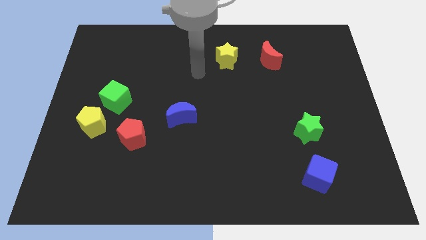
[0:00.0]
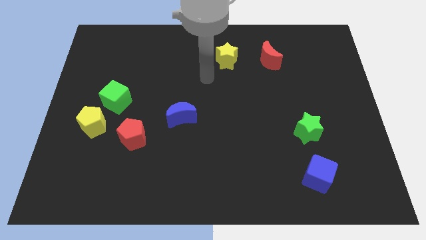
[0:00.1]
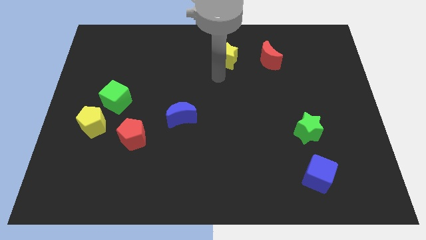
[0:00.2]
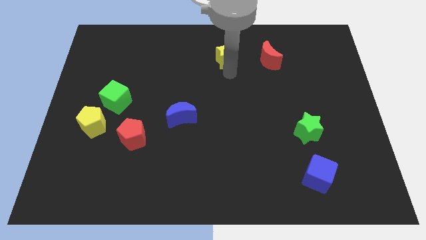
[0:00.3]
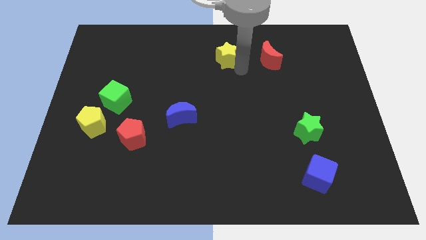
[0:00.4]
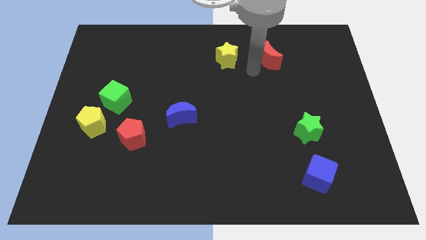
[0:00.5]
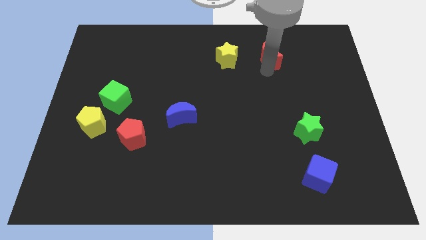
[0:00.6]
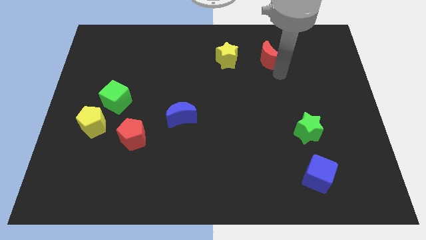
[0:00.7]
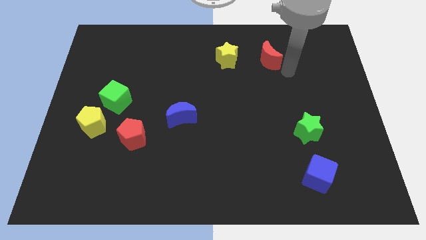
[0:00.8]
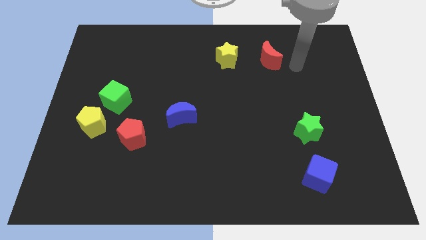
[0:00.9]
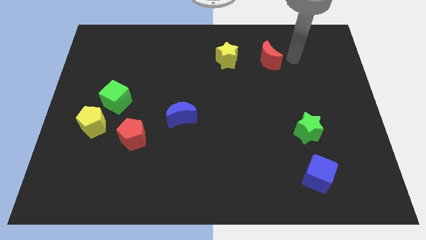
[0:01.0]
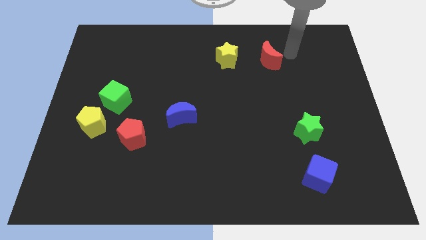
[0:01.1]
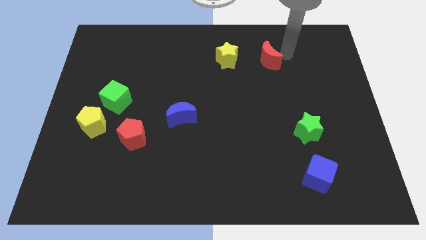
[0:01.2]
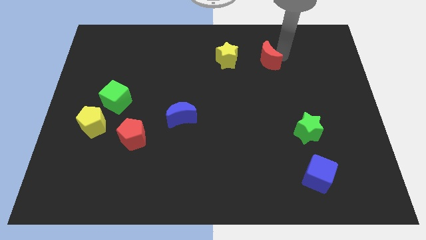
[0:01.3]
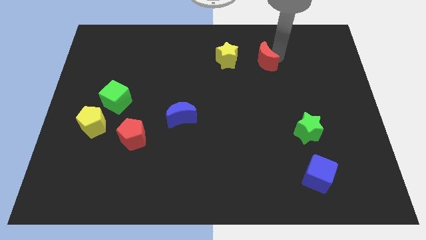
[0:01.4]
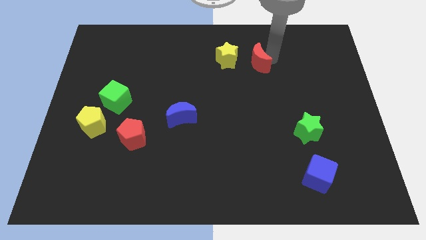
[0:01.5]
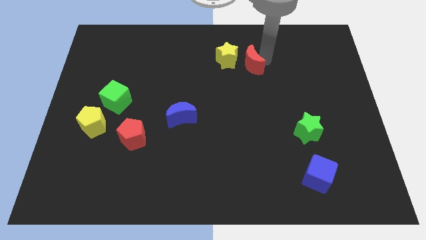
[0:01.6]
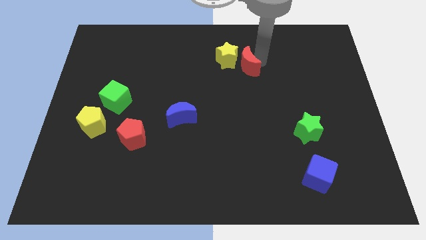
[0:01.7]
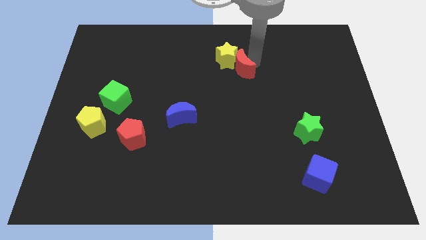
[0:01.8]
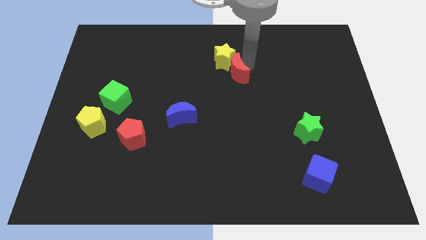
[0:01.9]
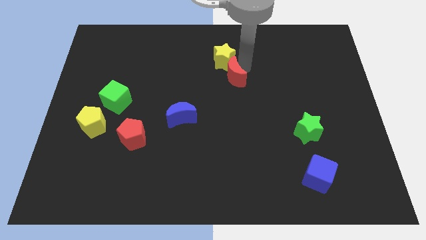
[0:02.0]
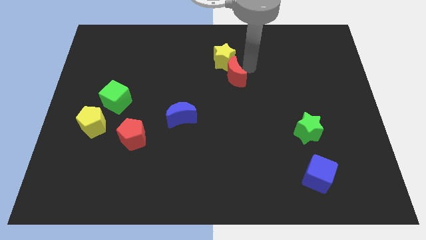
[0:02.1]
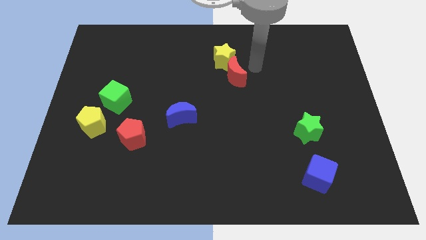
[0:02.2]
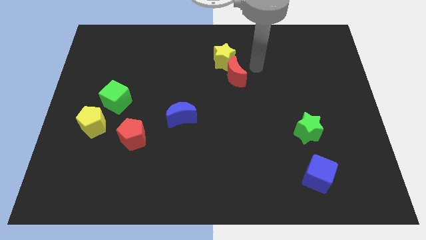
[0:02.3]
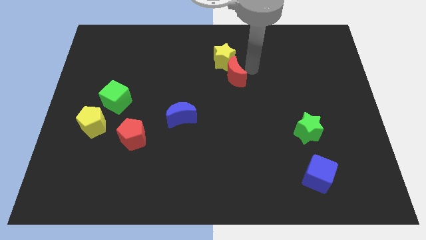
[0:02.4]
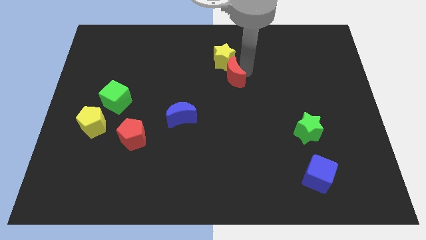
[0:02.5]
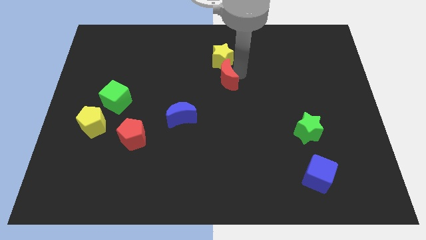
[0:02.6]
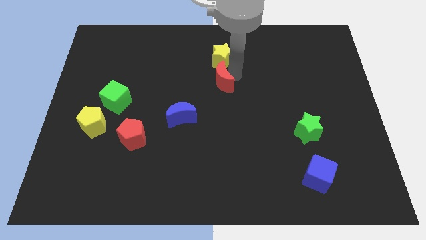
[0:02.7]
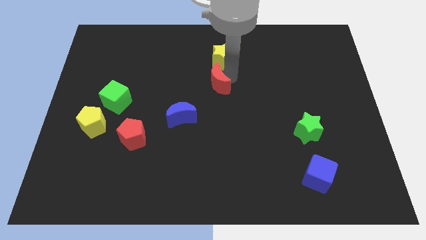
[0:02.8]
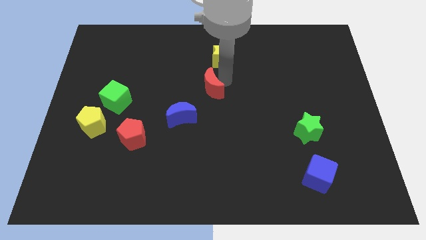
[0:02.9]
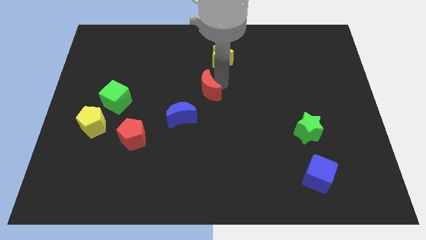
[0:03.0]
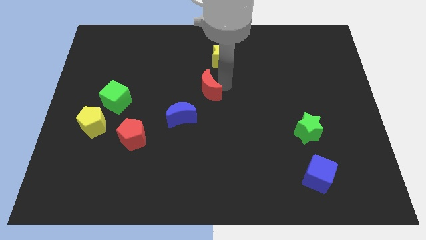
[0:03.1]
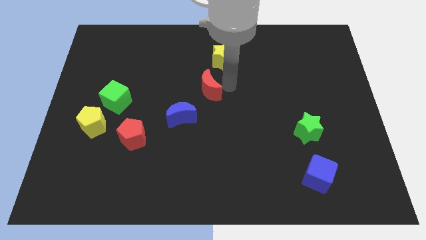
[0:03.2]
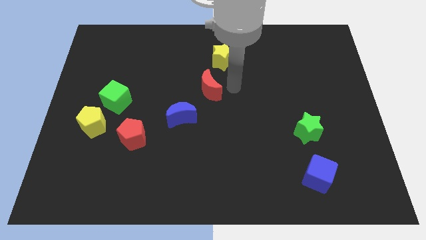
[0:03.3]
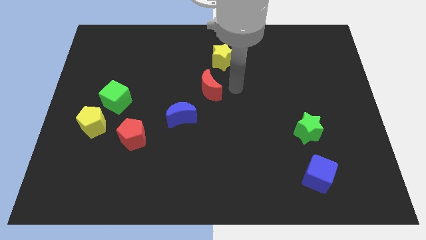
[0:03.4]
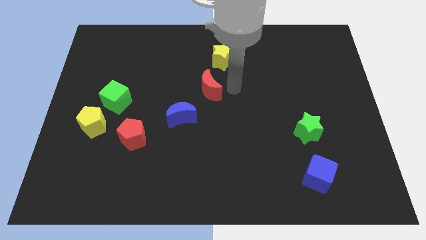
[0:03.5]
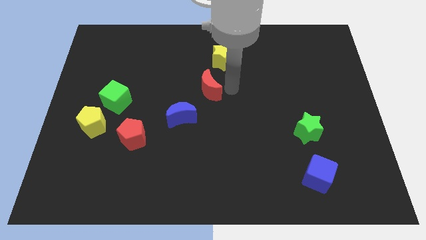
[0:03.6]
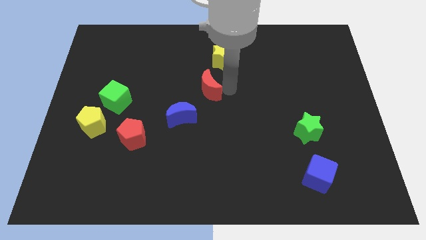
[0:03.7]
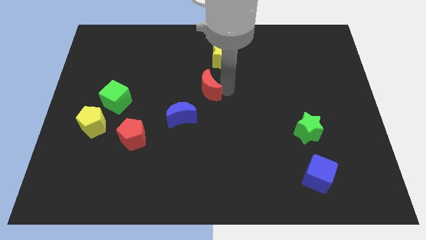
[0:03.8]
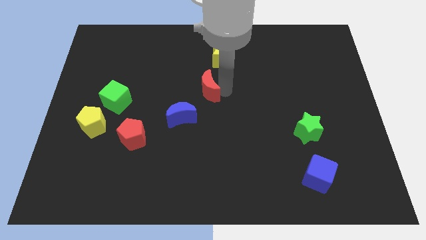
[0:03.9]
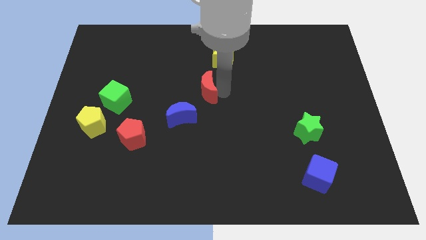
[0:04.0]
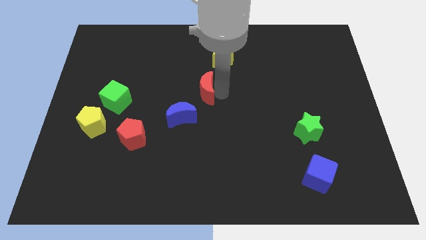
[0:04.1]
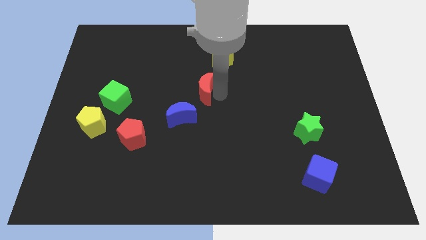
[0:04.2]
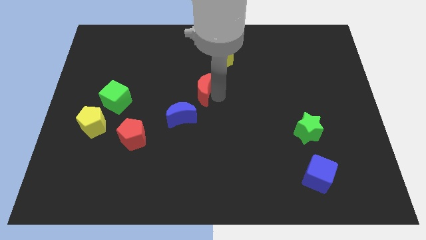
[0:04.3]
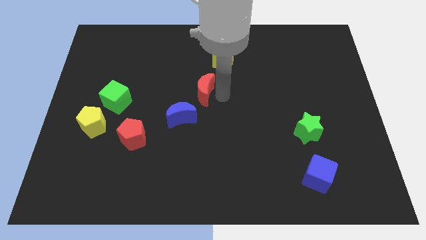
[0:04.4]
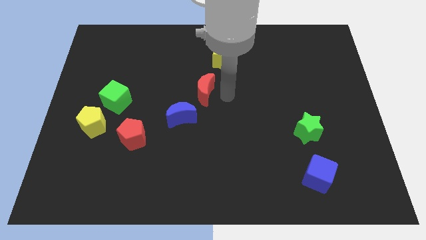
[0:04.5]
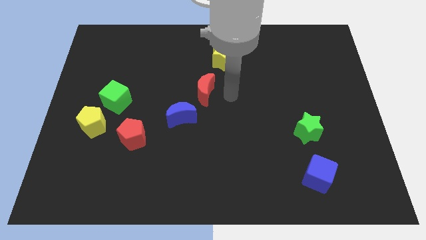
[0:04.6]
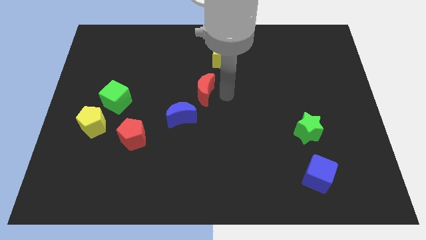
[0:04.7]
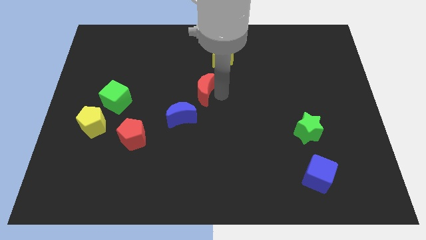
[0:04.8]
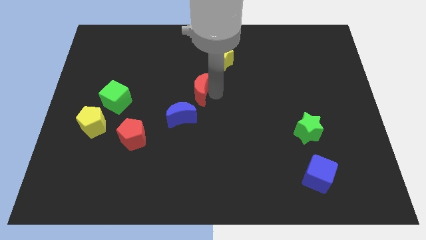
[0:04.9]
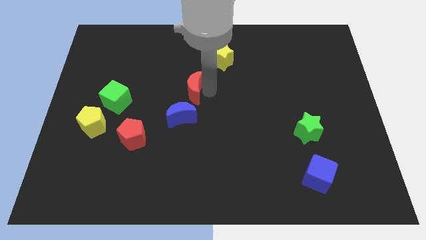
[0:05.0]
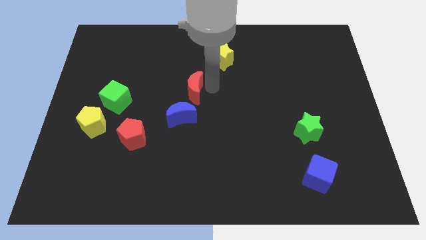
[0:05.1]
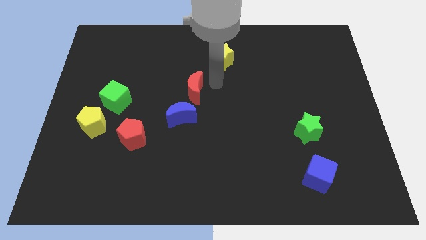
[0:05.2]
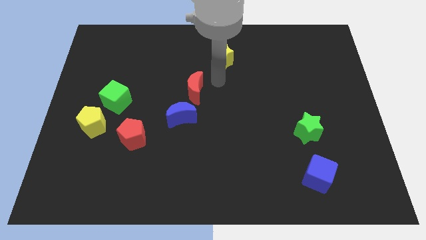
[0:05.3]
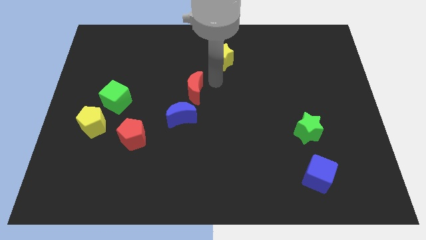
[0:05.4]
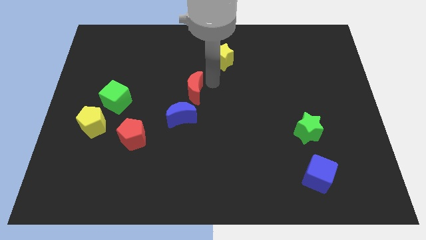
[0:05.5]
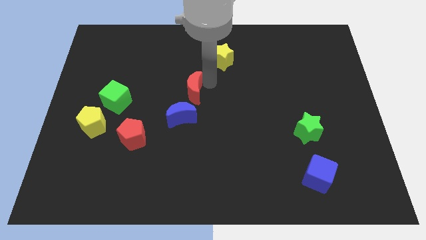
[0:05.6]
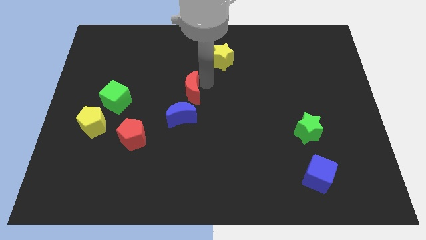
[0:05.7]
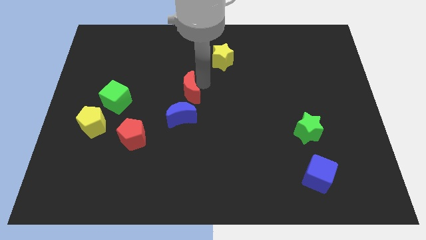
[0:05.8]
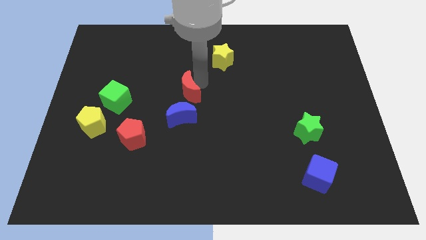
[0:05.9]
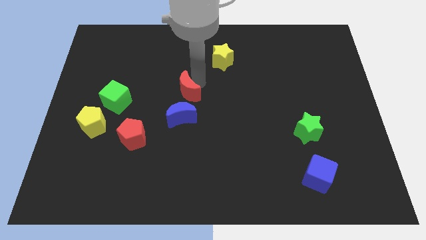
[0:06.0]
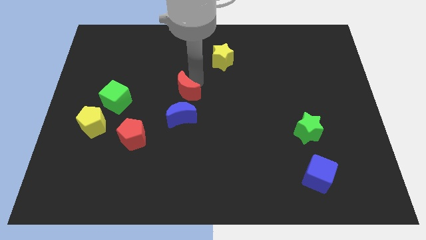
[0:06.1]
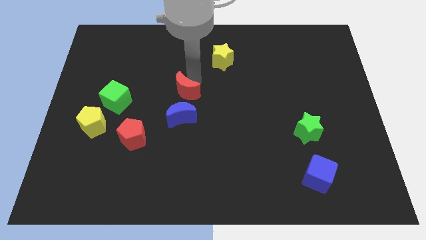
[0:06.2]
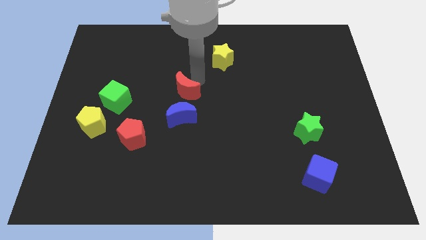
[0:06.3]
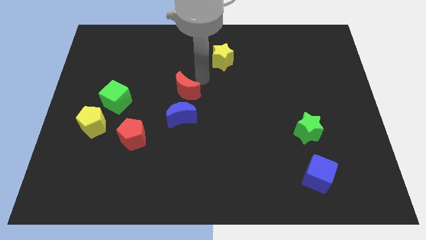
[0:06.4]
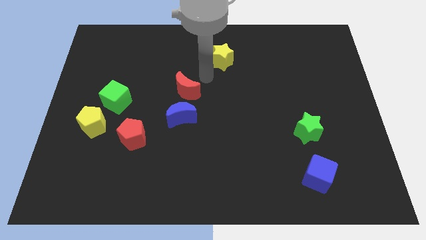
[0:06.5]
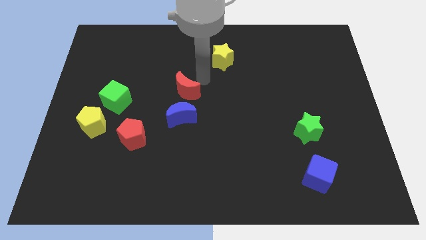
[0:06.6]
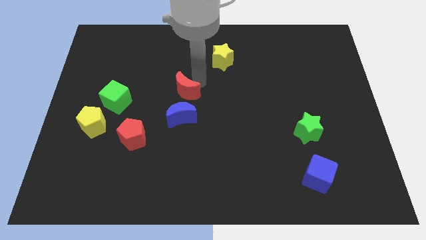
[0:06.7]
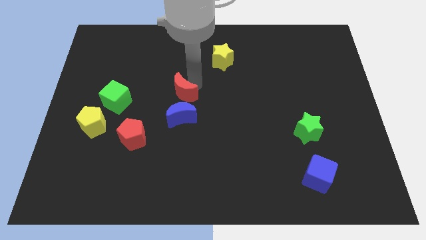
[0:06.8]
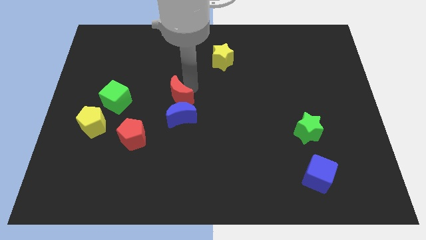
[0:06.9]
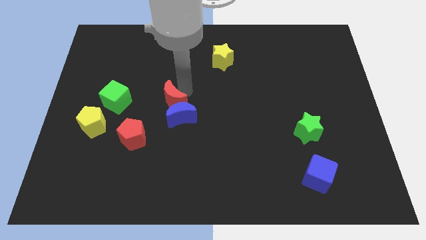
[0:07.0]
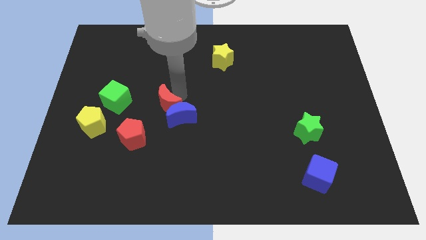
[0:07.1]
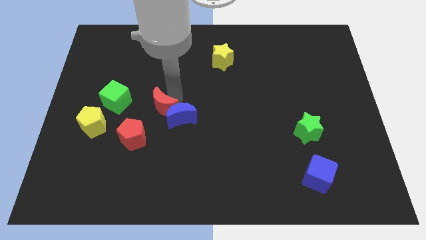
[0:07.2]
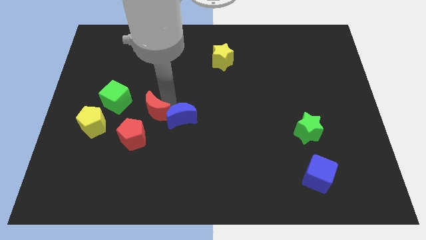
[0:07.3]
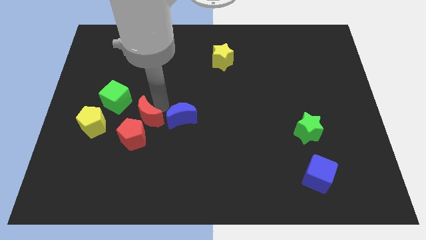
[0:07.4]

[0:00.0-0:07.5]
put the red moon towards the red pentagon
